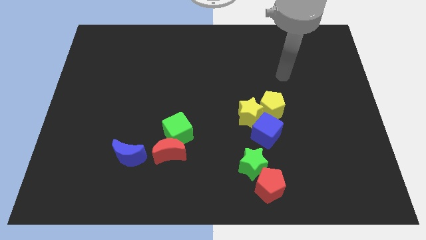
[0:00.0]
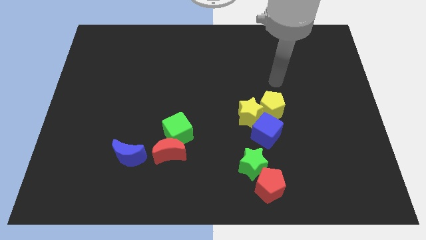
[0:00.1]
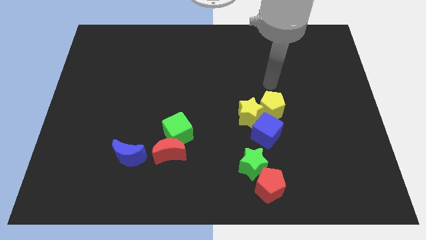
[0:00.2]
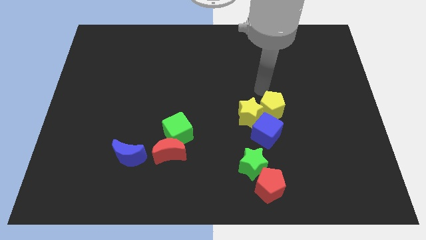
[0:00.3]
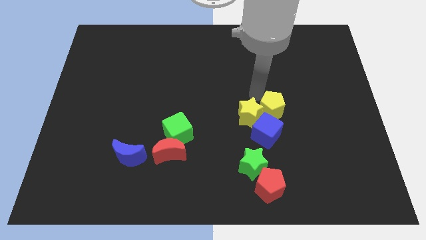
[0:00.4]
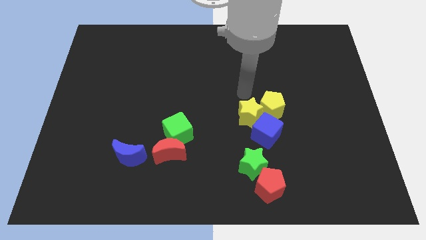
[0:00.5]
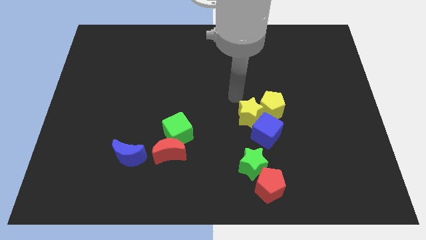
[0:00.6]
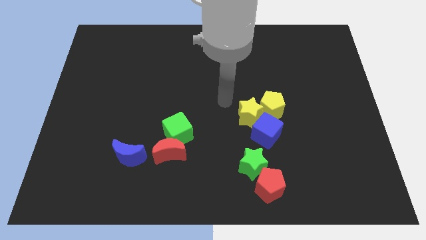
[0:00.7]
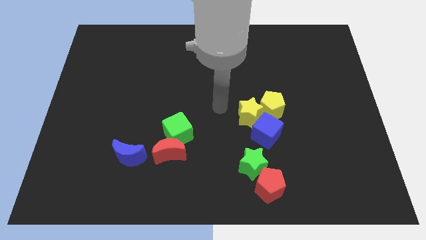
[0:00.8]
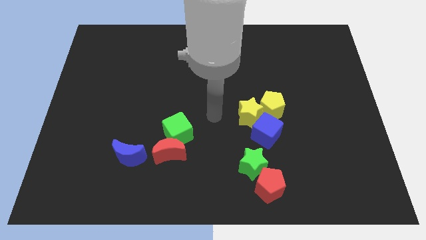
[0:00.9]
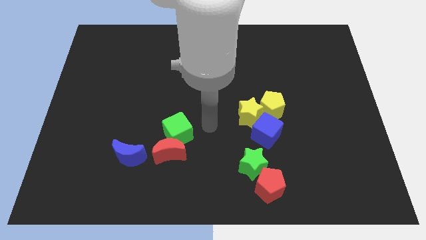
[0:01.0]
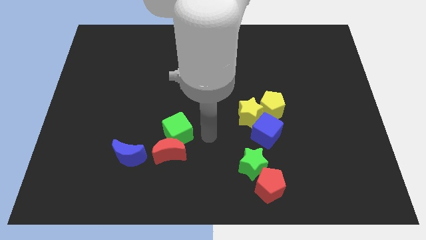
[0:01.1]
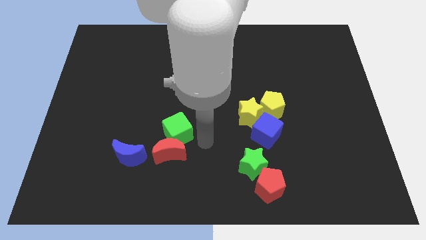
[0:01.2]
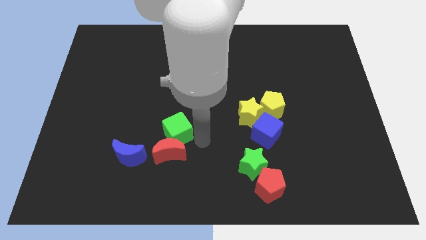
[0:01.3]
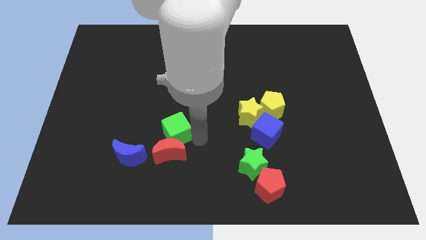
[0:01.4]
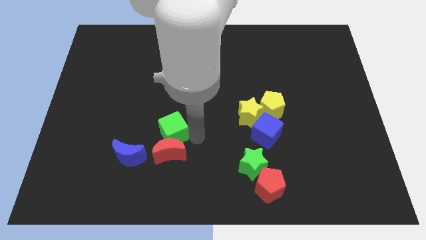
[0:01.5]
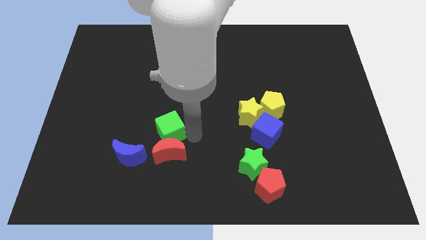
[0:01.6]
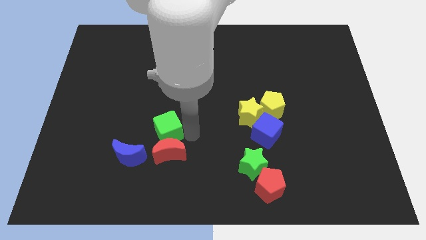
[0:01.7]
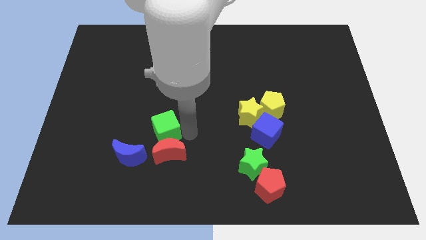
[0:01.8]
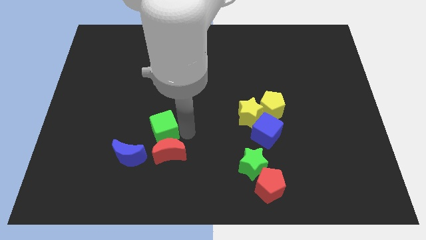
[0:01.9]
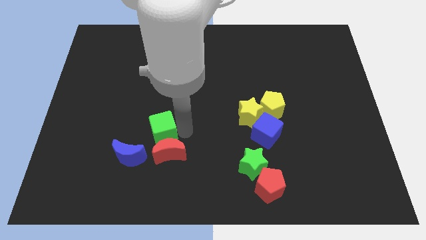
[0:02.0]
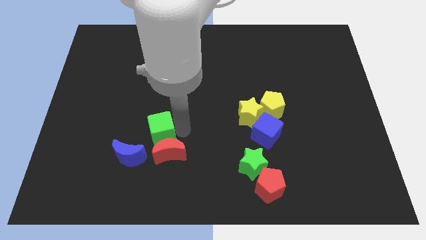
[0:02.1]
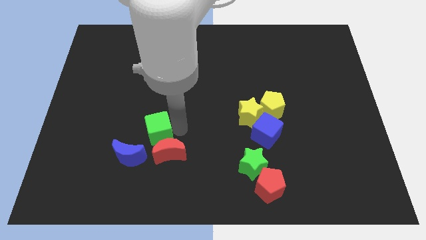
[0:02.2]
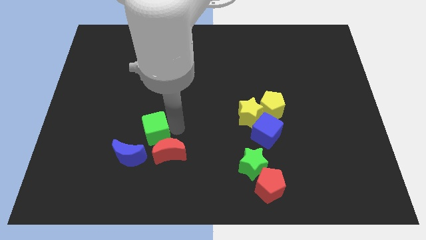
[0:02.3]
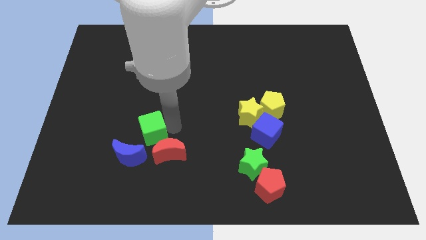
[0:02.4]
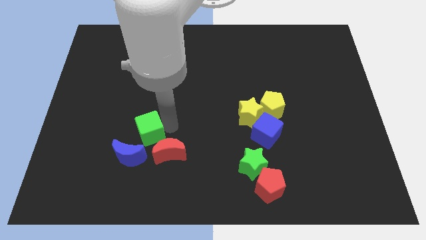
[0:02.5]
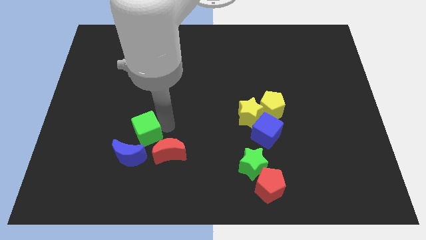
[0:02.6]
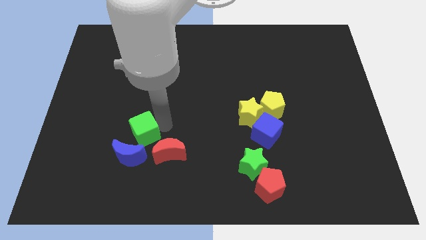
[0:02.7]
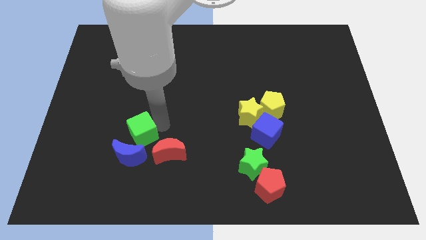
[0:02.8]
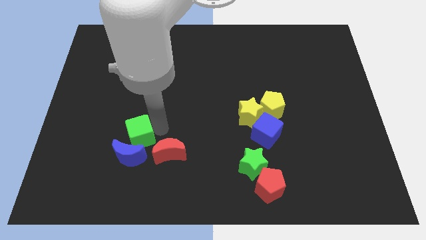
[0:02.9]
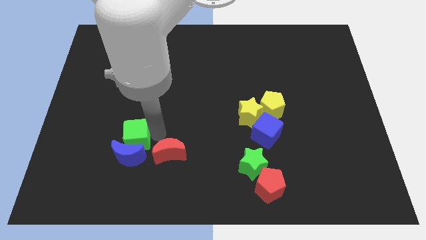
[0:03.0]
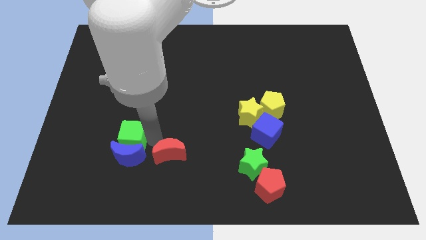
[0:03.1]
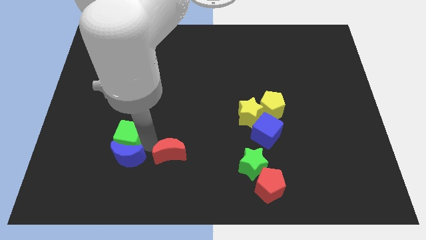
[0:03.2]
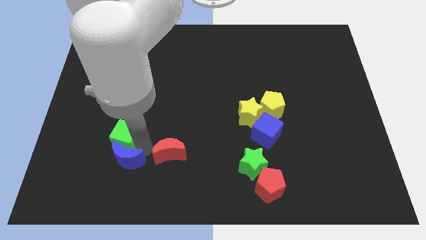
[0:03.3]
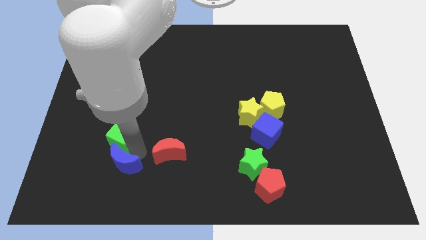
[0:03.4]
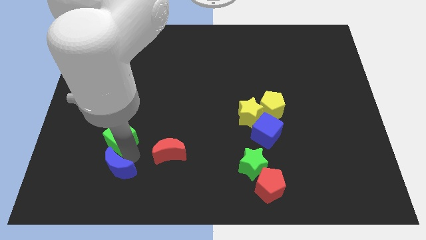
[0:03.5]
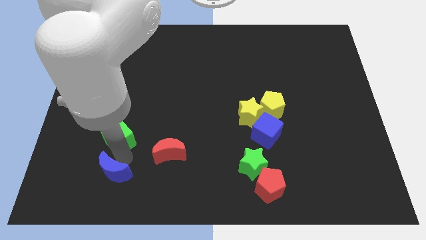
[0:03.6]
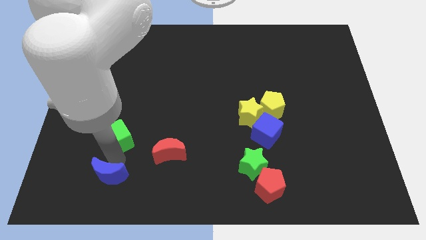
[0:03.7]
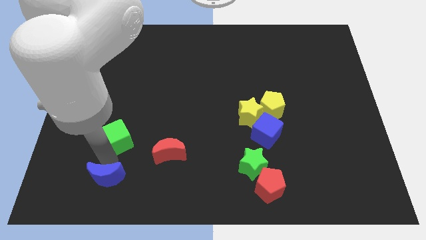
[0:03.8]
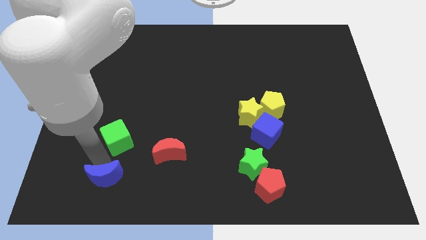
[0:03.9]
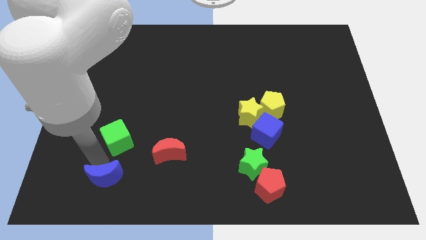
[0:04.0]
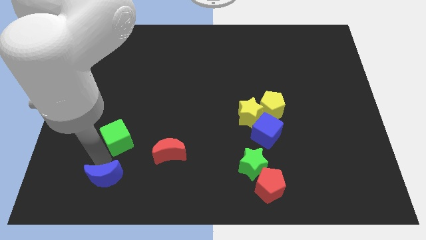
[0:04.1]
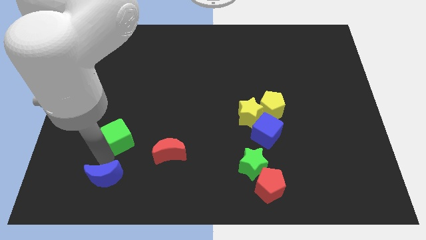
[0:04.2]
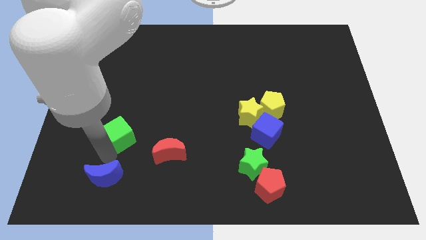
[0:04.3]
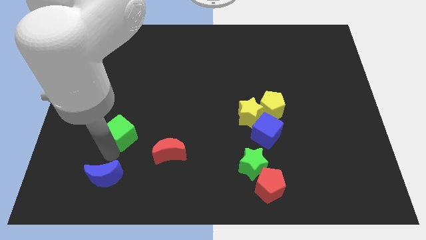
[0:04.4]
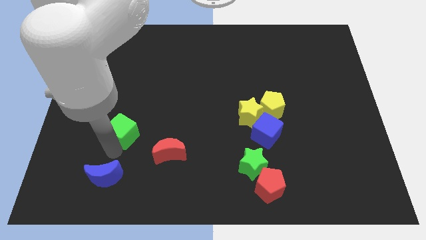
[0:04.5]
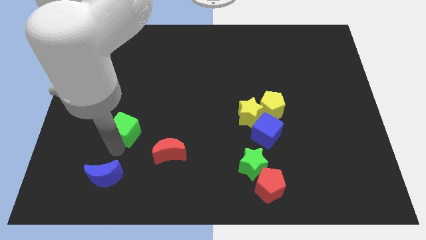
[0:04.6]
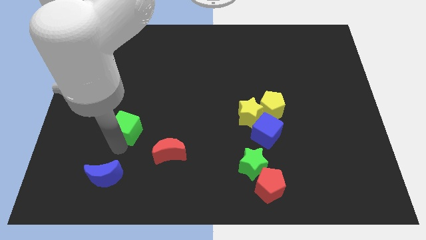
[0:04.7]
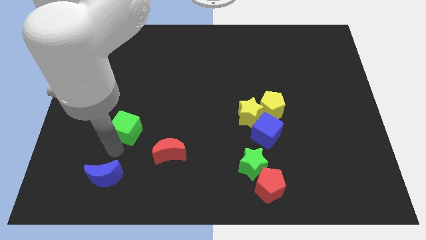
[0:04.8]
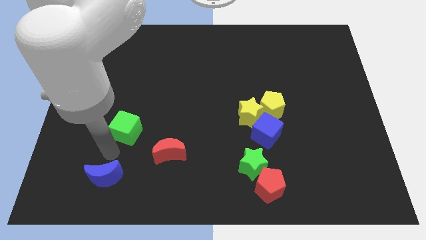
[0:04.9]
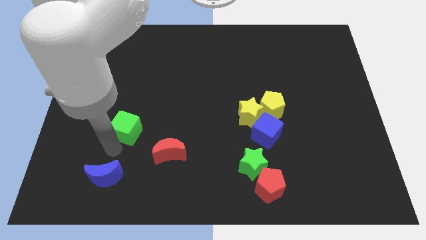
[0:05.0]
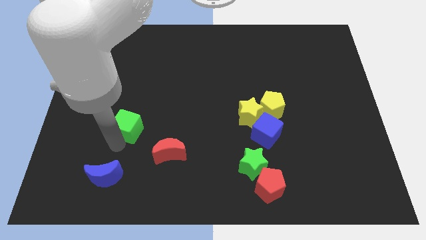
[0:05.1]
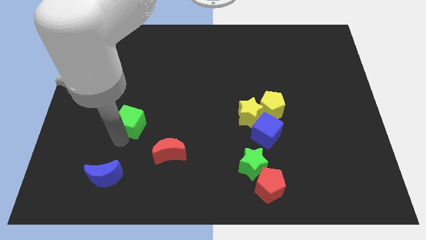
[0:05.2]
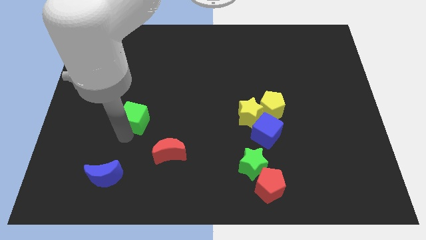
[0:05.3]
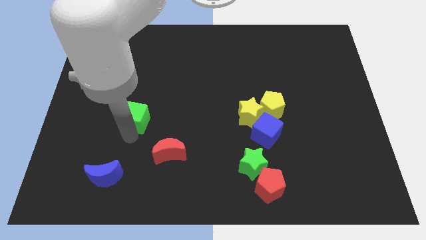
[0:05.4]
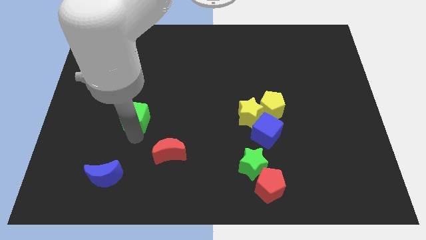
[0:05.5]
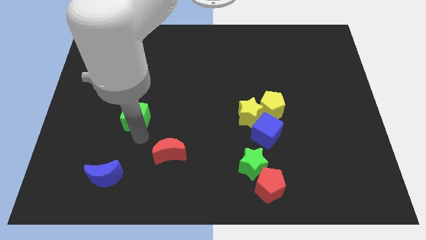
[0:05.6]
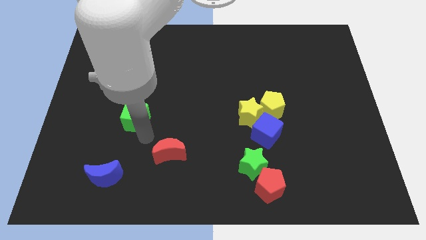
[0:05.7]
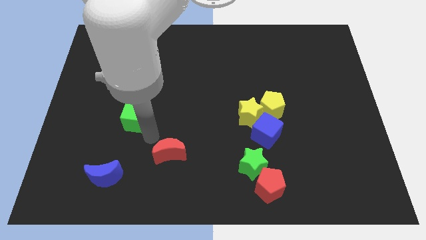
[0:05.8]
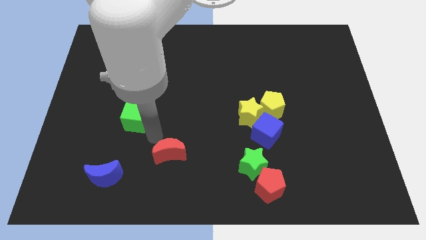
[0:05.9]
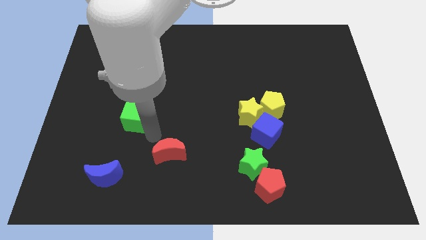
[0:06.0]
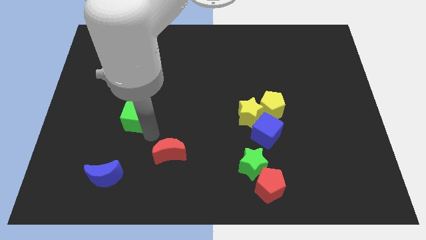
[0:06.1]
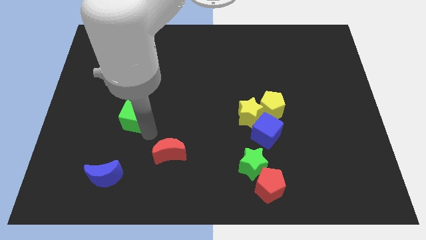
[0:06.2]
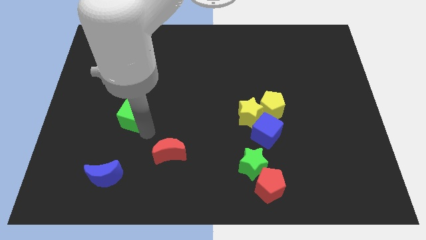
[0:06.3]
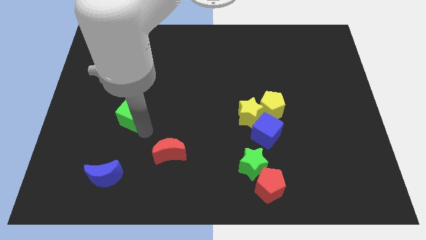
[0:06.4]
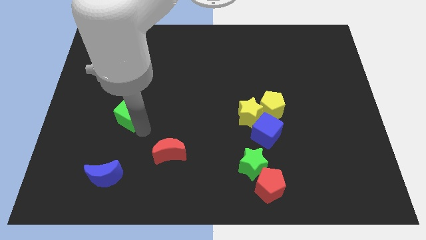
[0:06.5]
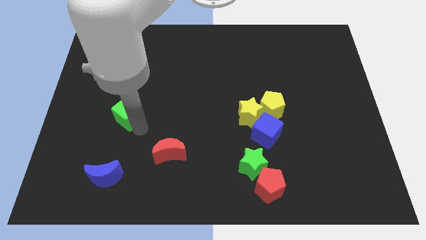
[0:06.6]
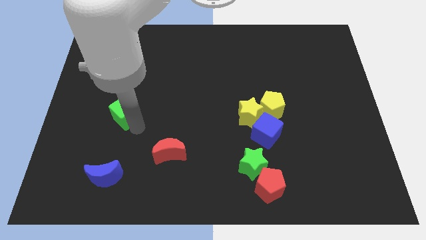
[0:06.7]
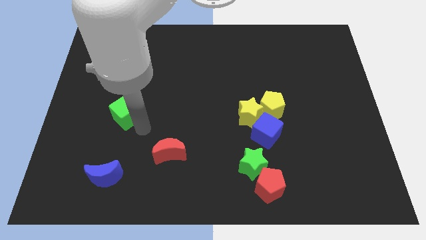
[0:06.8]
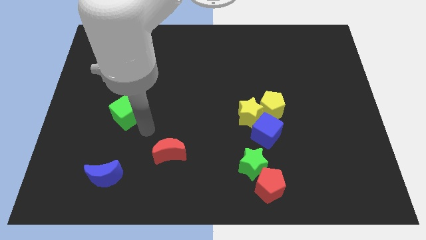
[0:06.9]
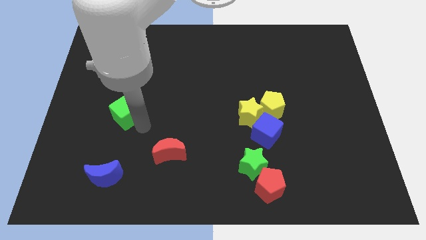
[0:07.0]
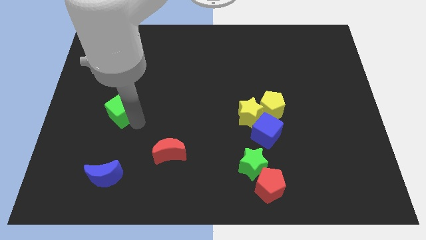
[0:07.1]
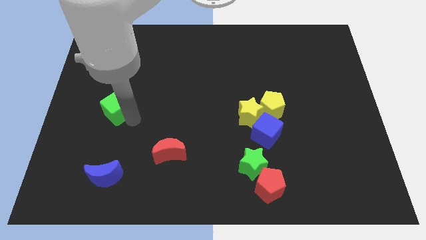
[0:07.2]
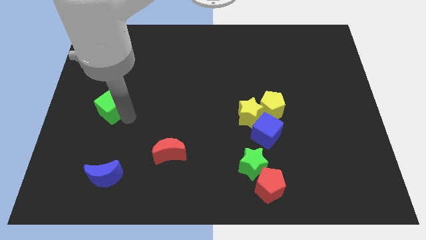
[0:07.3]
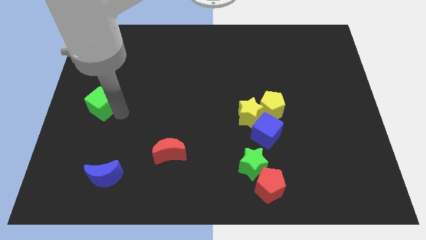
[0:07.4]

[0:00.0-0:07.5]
push the green cube to the left side of the board
